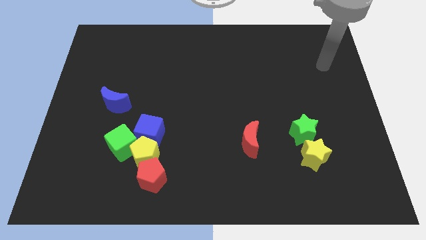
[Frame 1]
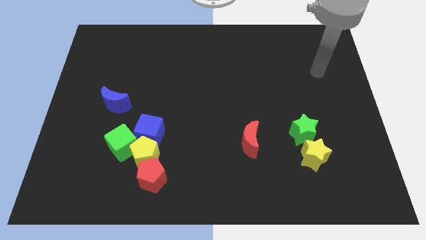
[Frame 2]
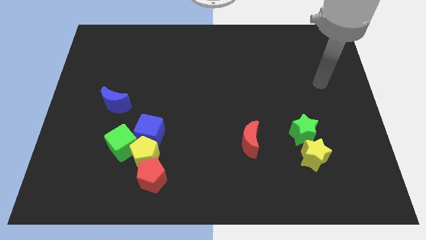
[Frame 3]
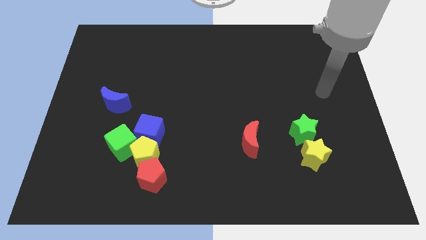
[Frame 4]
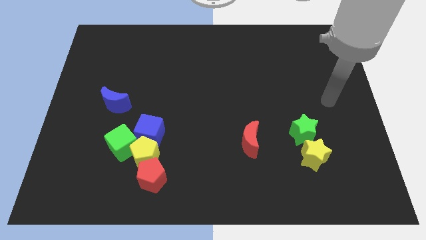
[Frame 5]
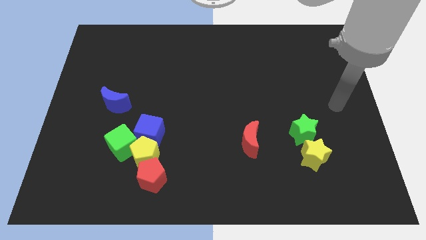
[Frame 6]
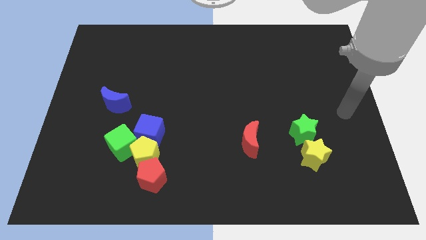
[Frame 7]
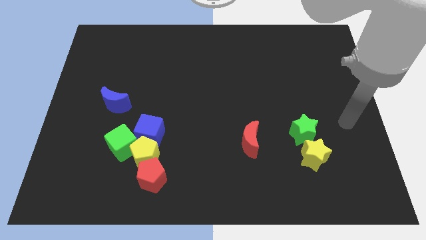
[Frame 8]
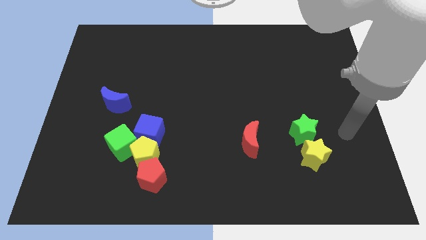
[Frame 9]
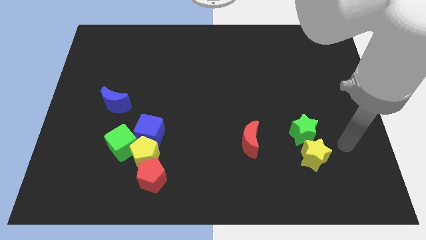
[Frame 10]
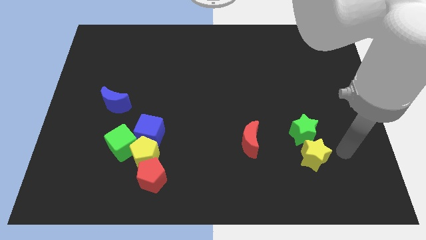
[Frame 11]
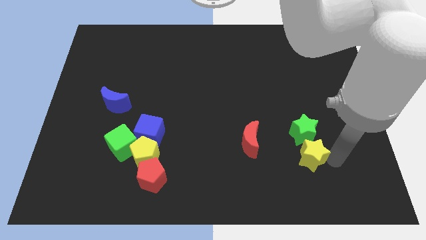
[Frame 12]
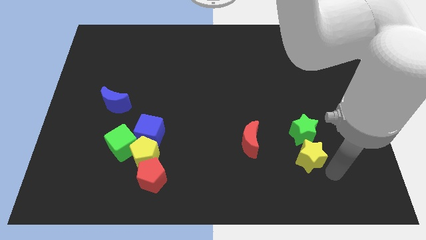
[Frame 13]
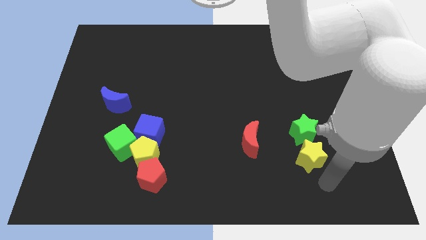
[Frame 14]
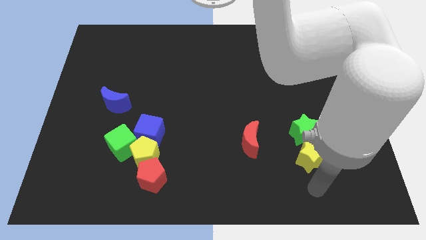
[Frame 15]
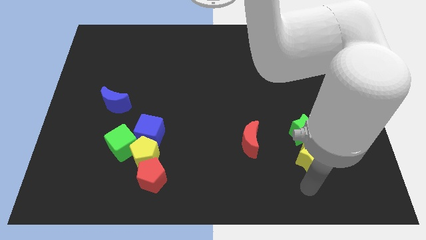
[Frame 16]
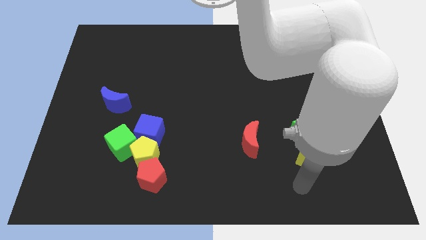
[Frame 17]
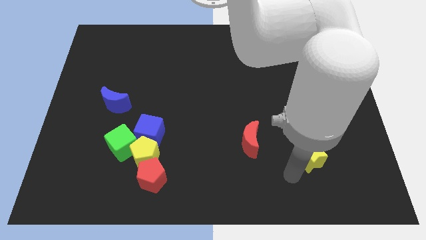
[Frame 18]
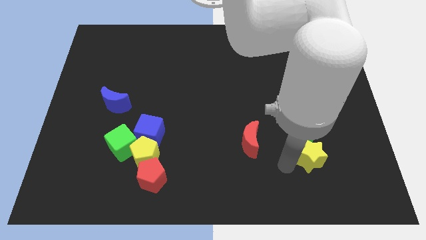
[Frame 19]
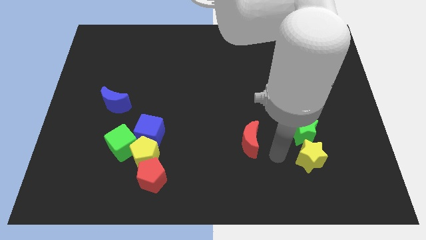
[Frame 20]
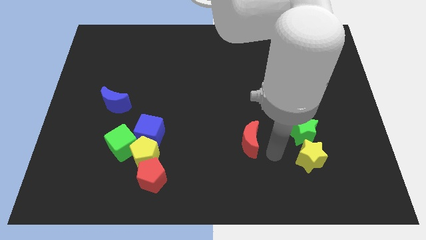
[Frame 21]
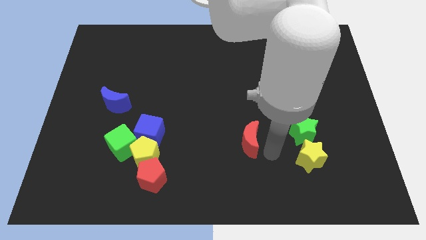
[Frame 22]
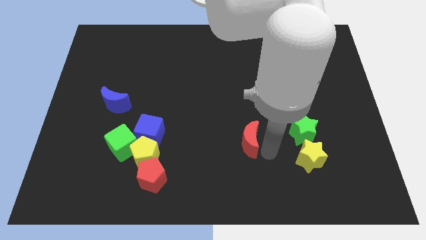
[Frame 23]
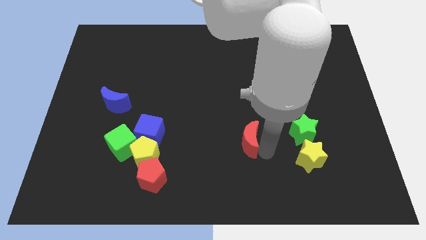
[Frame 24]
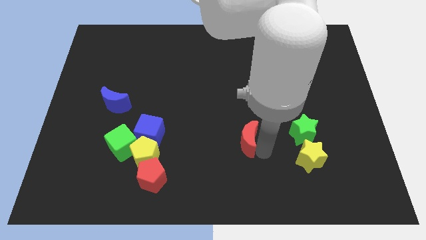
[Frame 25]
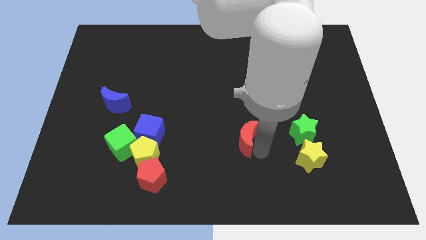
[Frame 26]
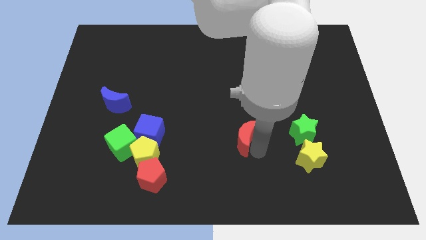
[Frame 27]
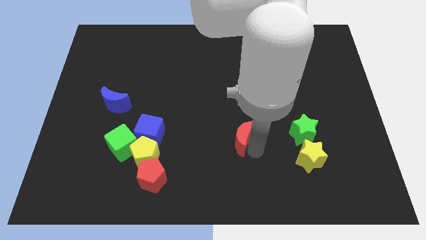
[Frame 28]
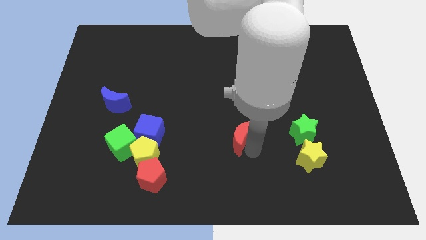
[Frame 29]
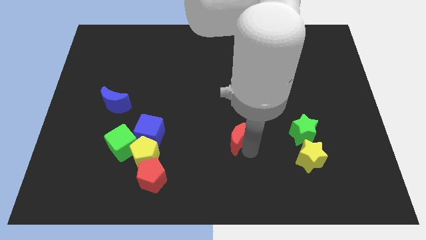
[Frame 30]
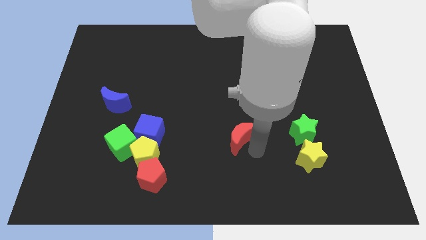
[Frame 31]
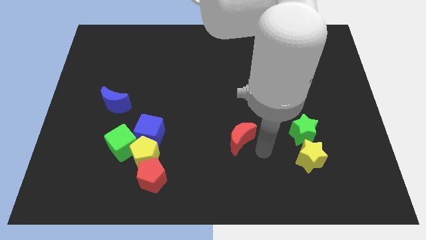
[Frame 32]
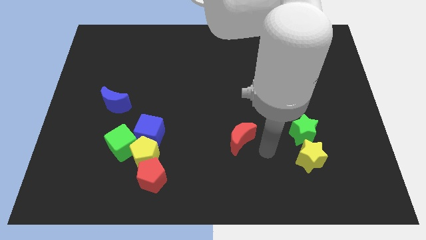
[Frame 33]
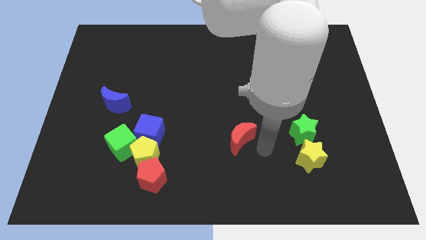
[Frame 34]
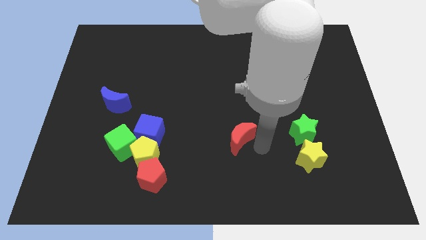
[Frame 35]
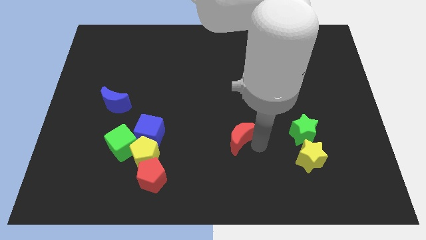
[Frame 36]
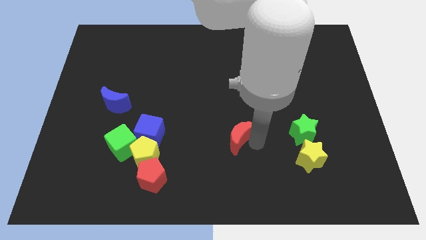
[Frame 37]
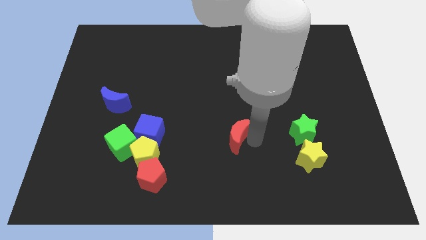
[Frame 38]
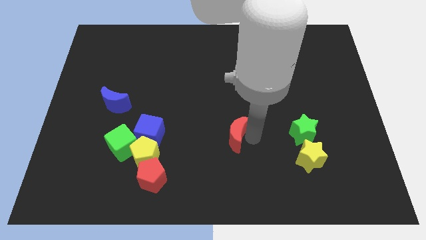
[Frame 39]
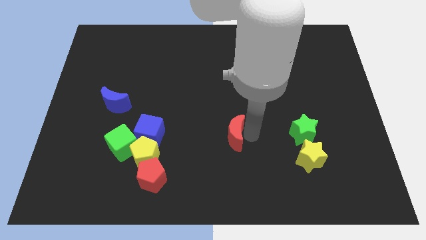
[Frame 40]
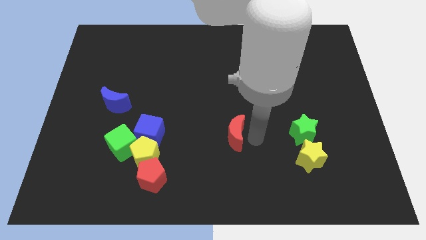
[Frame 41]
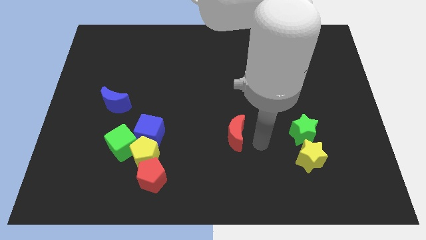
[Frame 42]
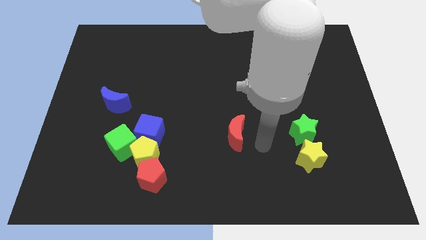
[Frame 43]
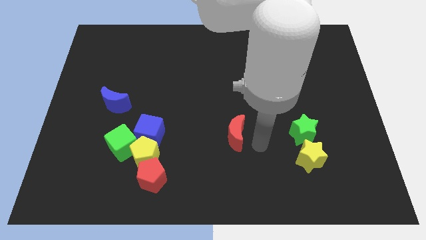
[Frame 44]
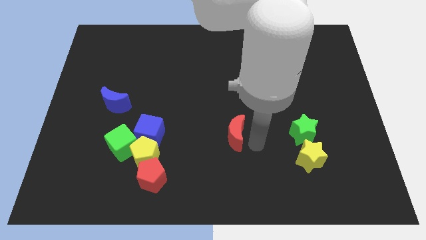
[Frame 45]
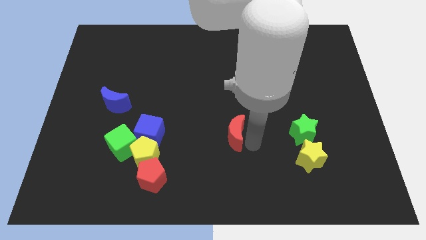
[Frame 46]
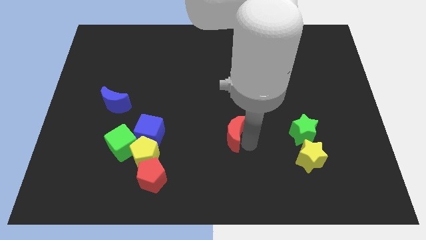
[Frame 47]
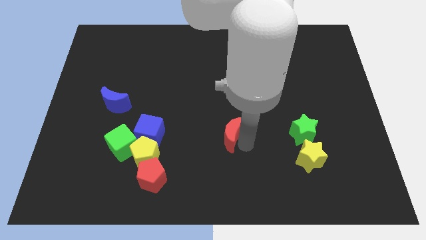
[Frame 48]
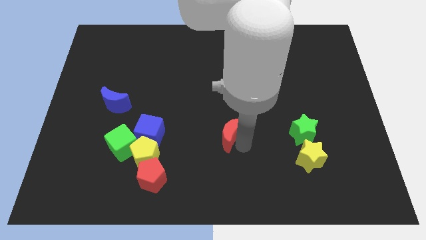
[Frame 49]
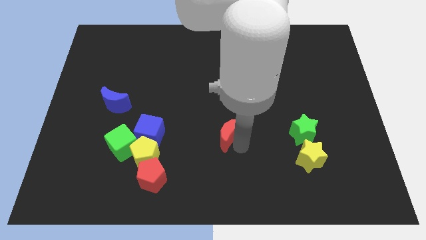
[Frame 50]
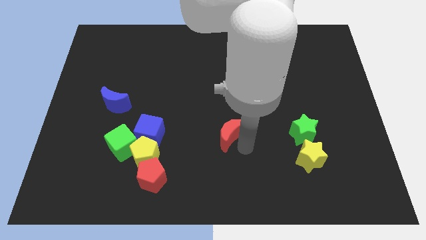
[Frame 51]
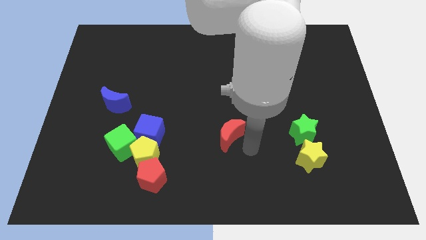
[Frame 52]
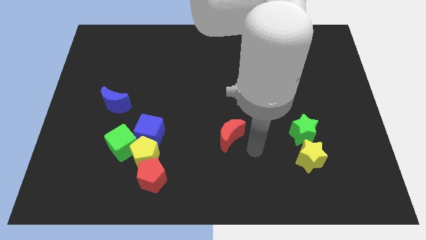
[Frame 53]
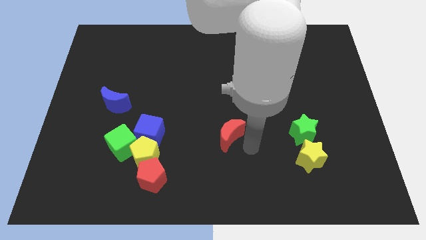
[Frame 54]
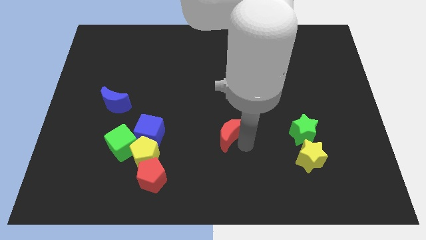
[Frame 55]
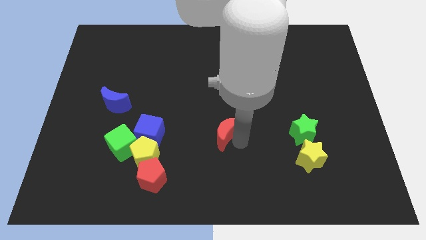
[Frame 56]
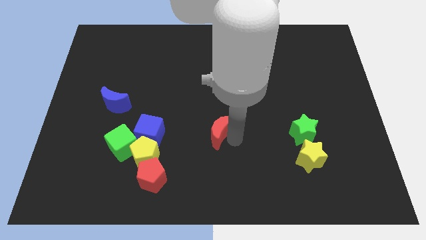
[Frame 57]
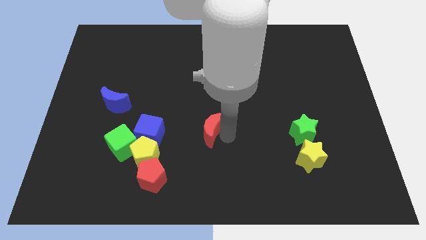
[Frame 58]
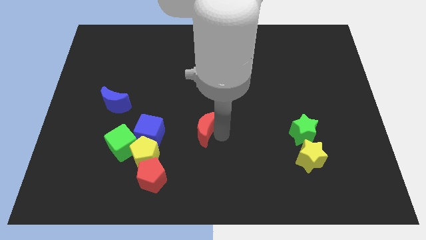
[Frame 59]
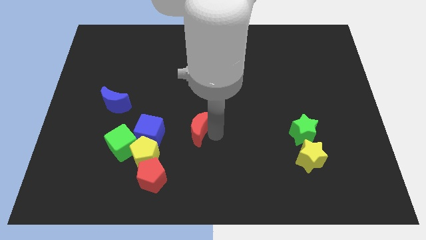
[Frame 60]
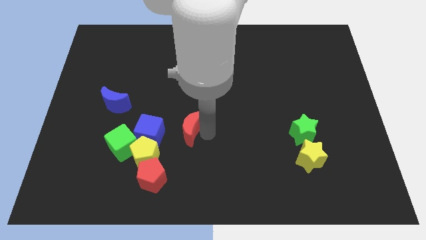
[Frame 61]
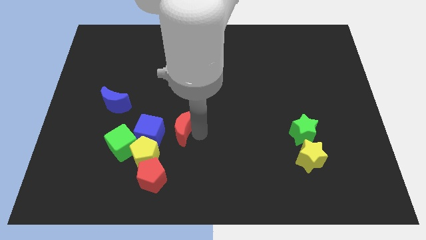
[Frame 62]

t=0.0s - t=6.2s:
push the red moon to the top right side of the blue cube

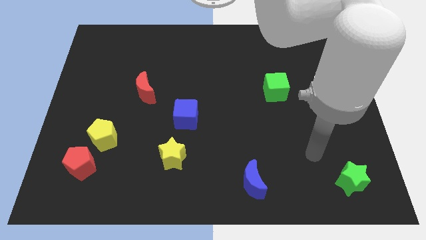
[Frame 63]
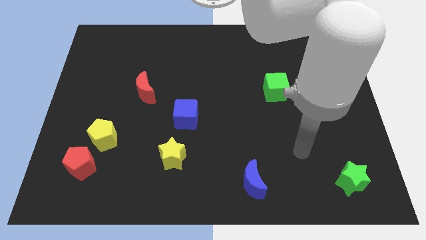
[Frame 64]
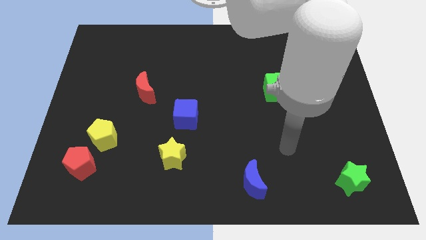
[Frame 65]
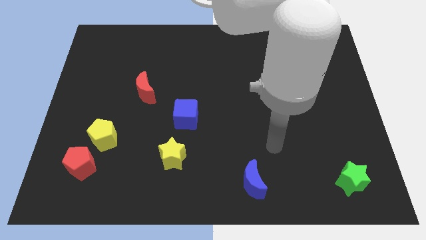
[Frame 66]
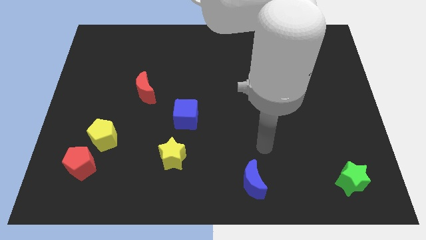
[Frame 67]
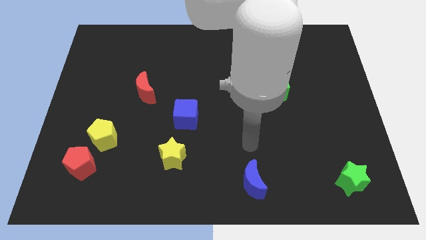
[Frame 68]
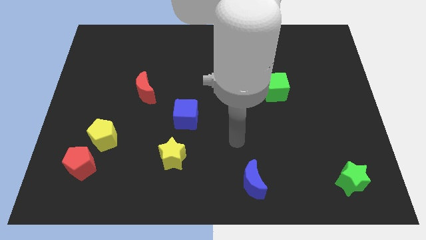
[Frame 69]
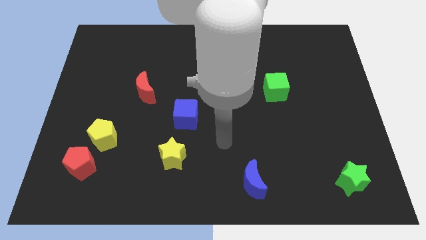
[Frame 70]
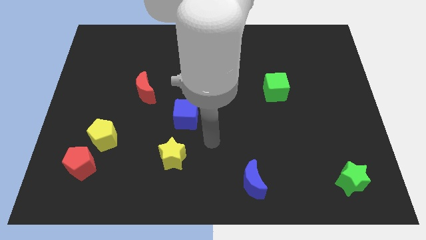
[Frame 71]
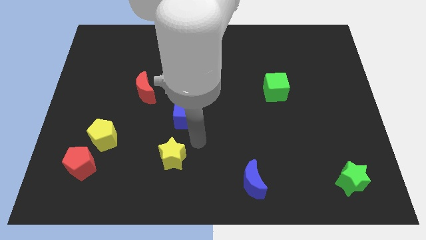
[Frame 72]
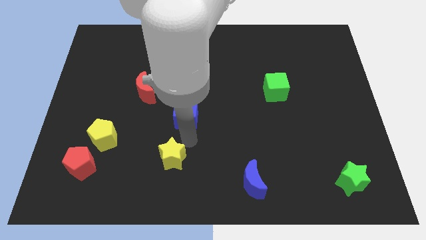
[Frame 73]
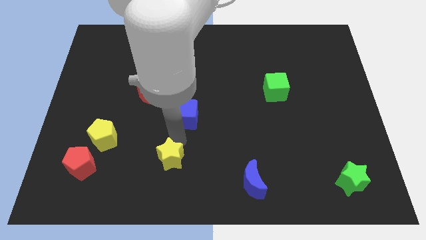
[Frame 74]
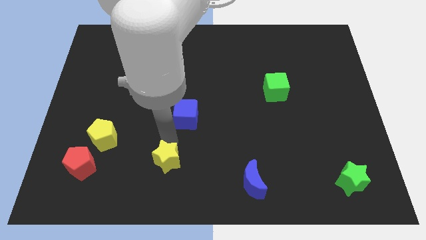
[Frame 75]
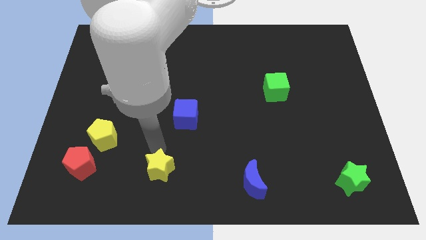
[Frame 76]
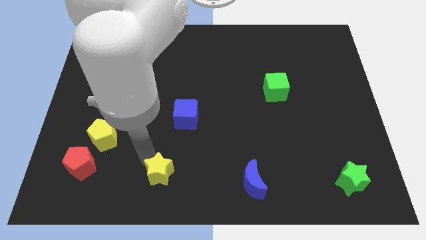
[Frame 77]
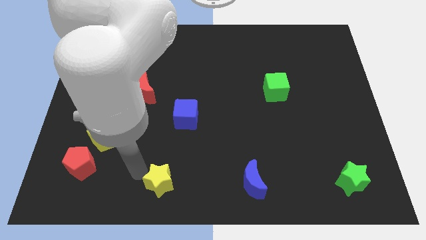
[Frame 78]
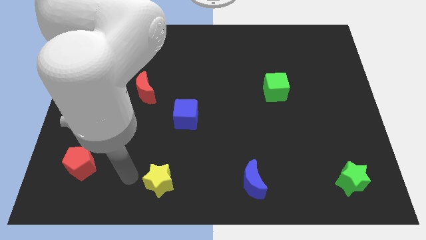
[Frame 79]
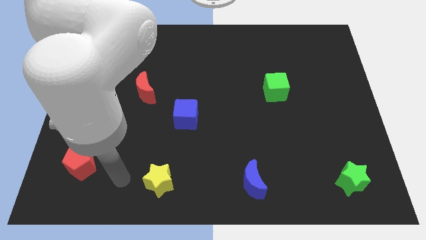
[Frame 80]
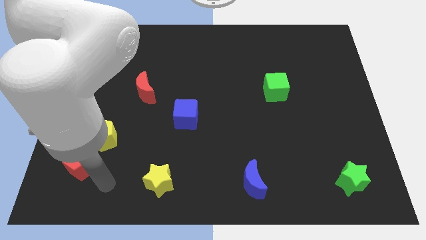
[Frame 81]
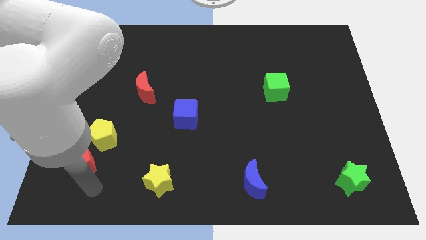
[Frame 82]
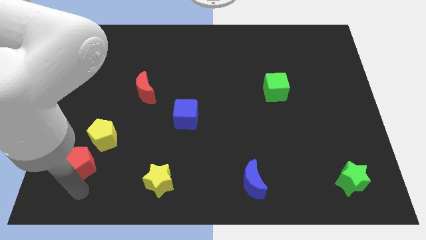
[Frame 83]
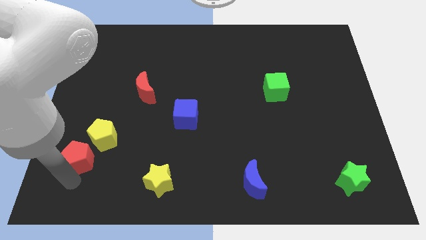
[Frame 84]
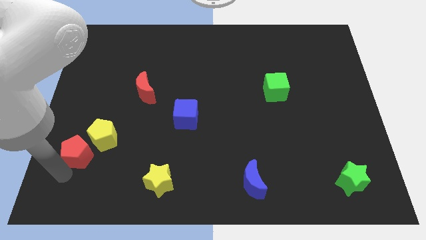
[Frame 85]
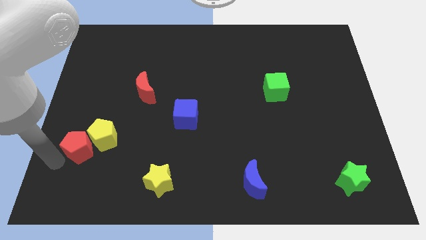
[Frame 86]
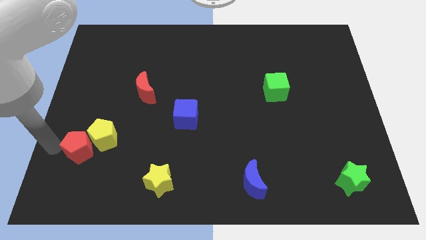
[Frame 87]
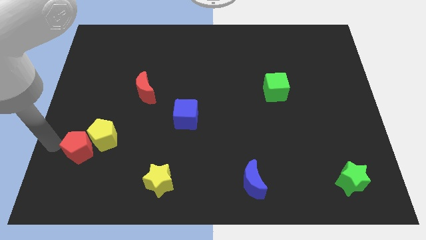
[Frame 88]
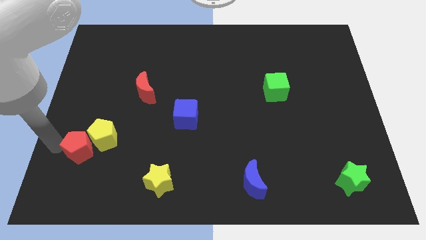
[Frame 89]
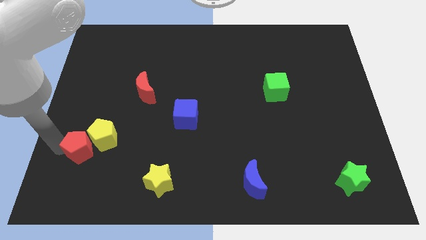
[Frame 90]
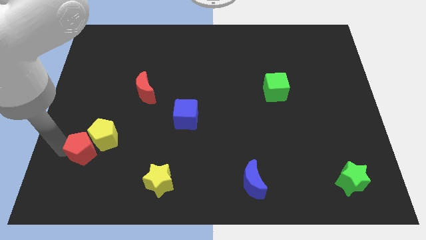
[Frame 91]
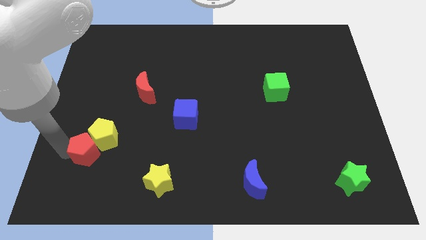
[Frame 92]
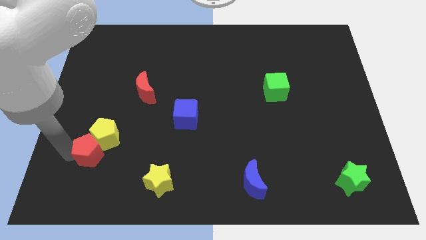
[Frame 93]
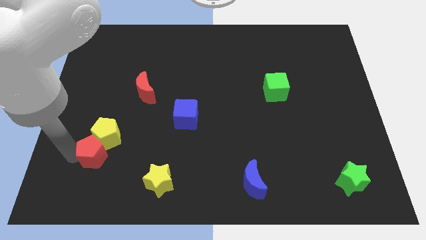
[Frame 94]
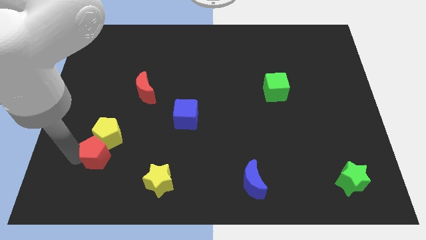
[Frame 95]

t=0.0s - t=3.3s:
push the red pentagon to the bottom right side of the yellow pentagon
